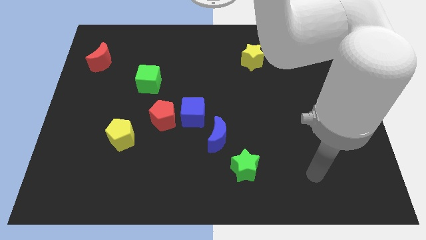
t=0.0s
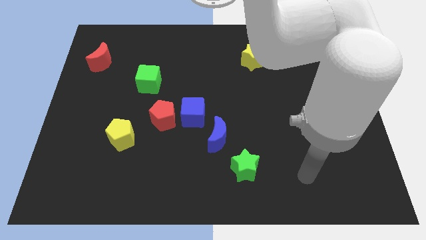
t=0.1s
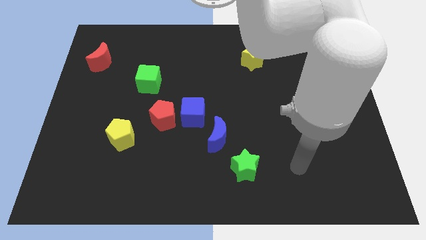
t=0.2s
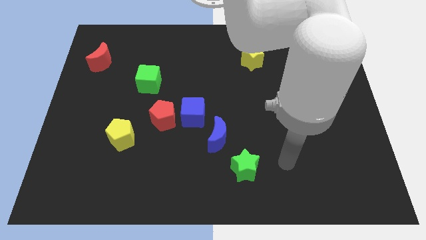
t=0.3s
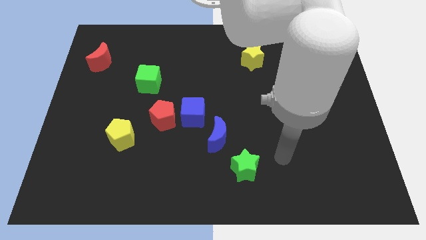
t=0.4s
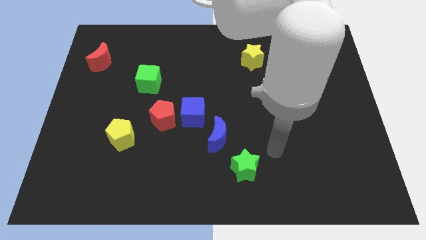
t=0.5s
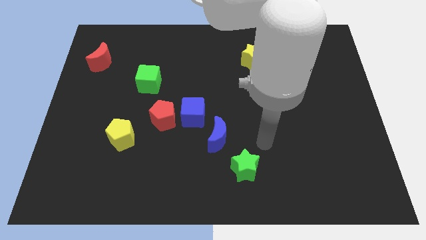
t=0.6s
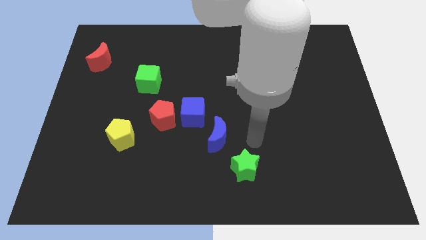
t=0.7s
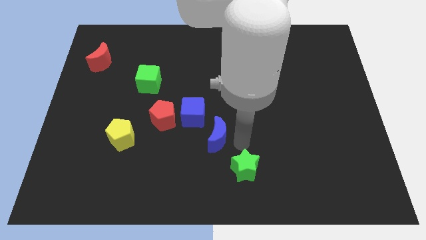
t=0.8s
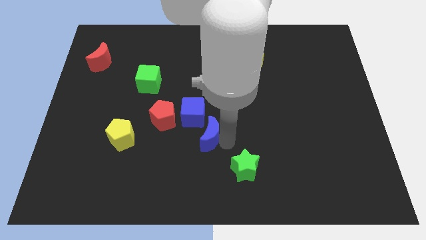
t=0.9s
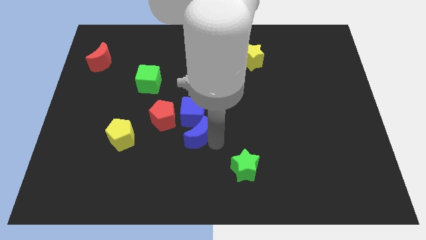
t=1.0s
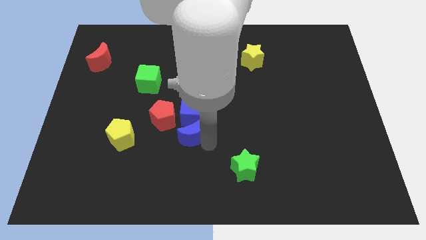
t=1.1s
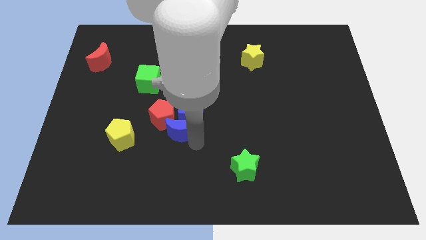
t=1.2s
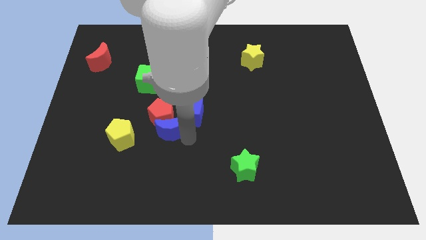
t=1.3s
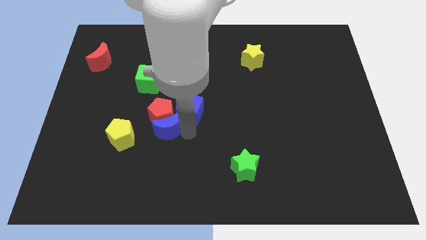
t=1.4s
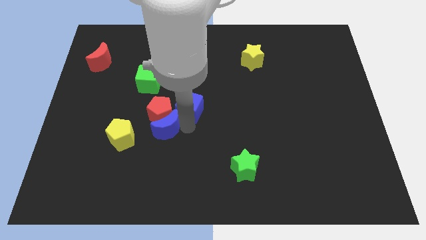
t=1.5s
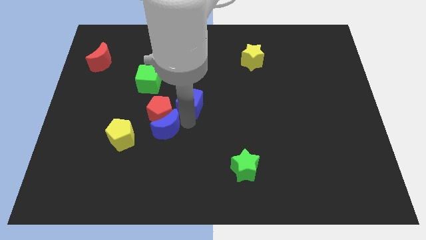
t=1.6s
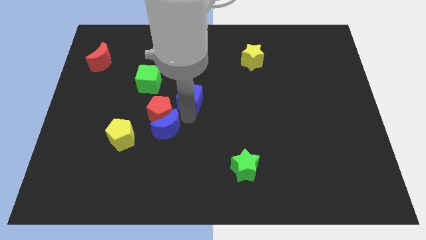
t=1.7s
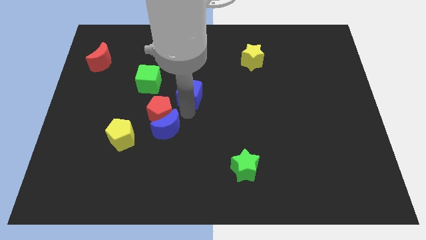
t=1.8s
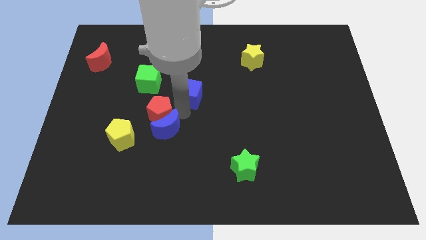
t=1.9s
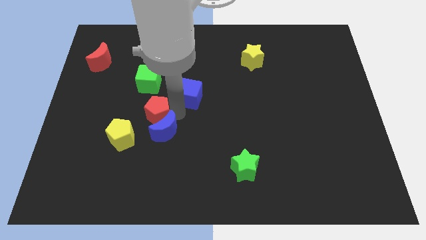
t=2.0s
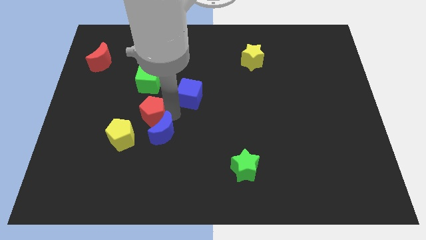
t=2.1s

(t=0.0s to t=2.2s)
pull the blue cube apart from the red pentagon and blue moon

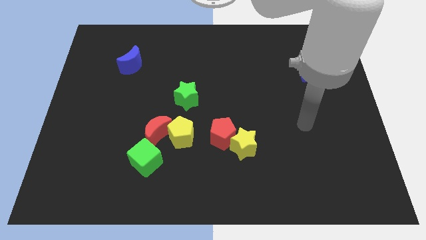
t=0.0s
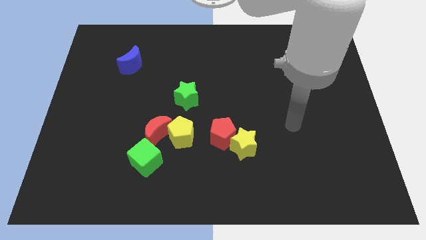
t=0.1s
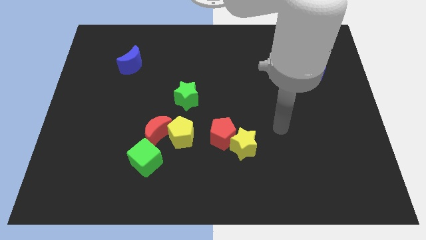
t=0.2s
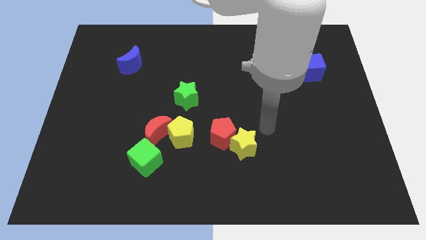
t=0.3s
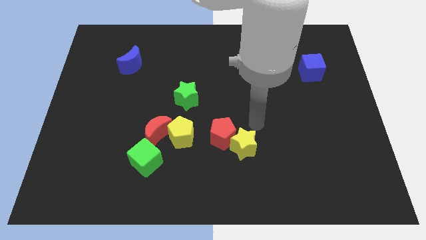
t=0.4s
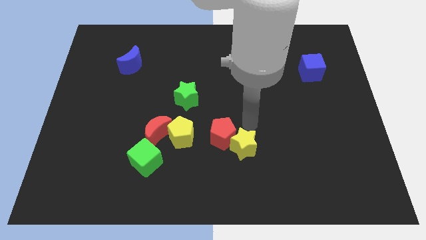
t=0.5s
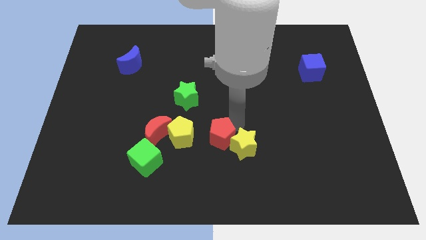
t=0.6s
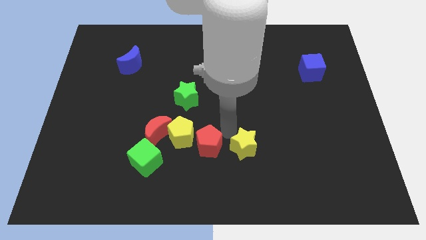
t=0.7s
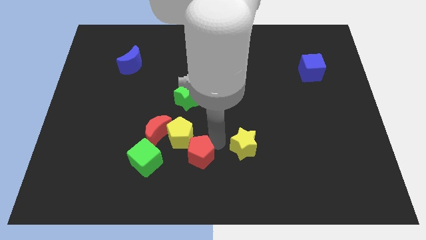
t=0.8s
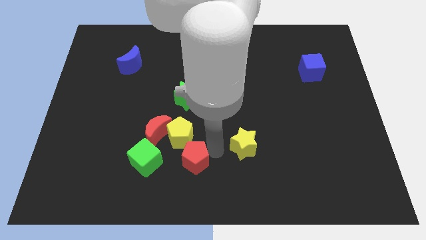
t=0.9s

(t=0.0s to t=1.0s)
separate the yellow star from the red pentagon

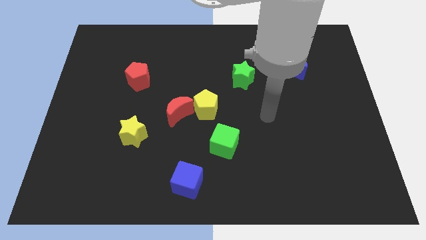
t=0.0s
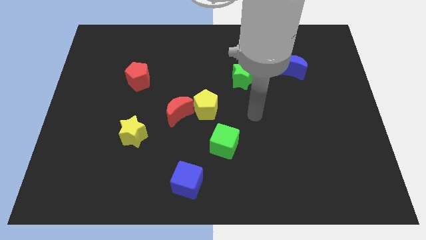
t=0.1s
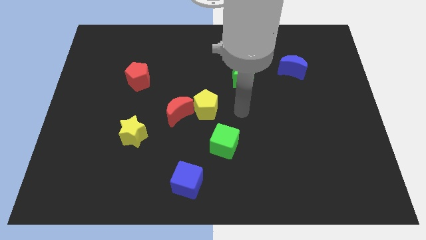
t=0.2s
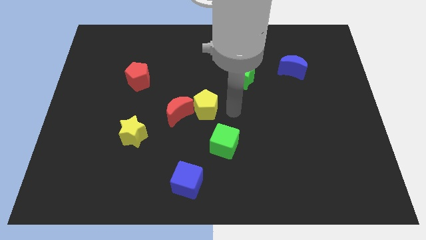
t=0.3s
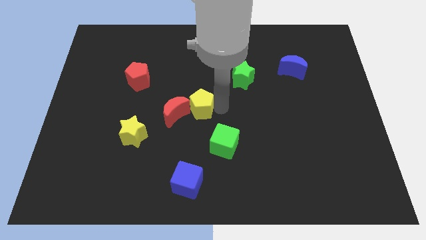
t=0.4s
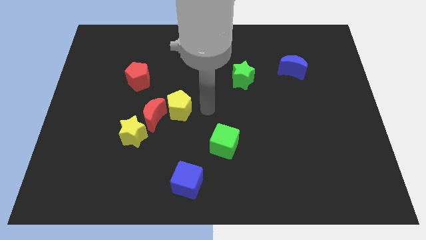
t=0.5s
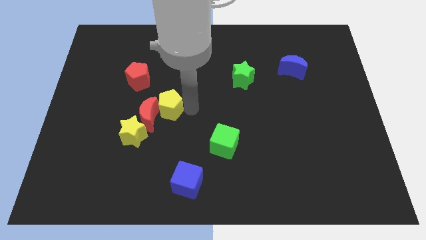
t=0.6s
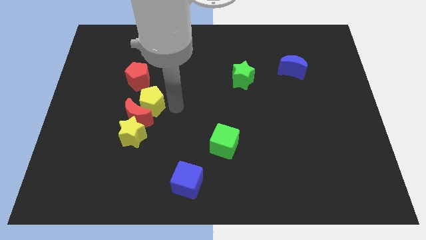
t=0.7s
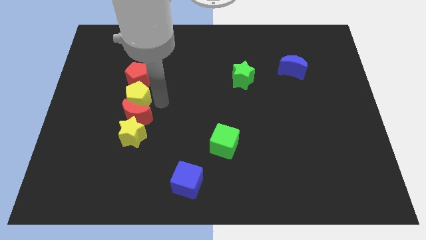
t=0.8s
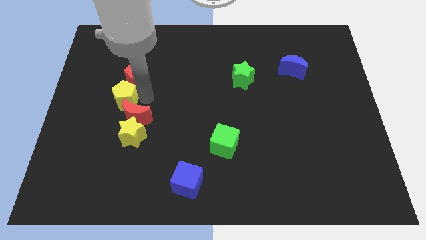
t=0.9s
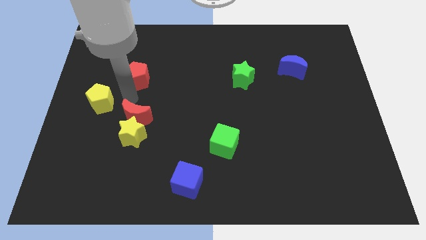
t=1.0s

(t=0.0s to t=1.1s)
move the red moon away from the yellow pentagon

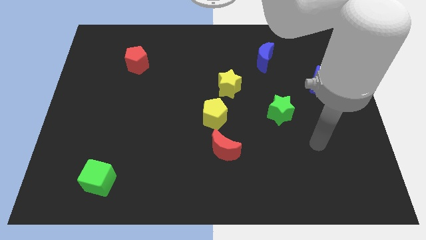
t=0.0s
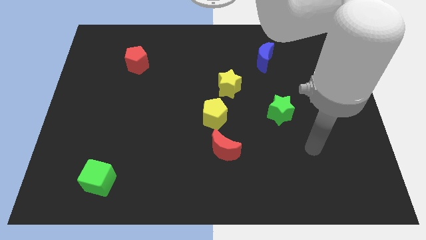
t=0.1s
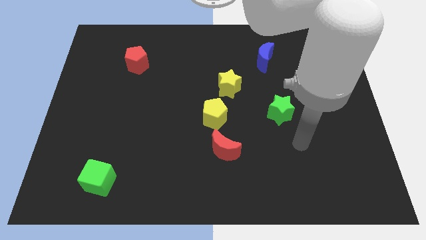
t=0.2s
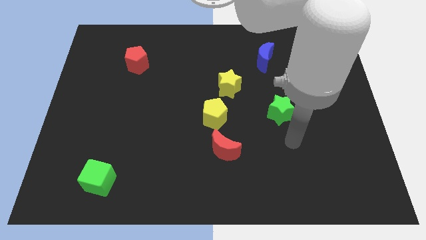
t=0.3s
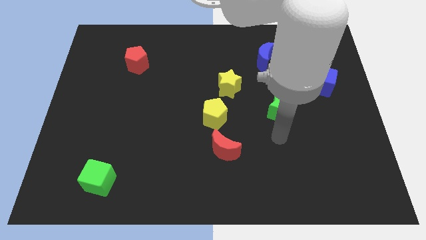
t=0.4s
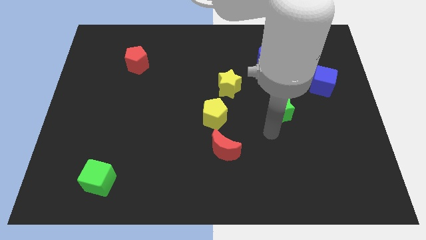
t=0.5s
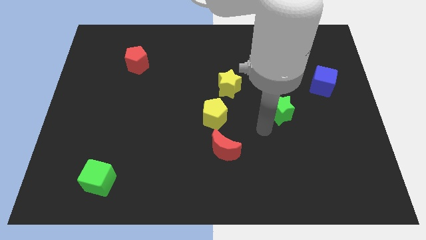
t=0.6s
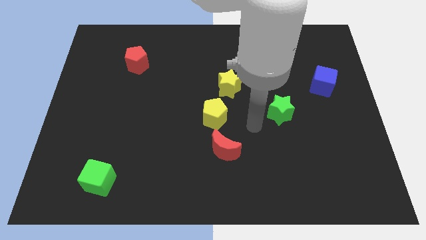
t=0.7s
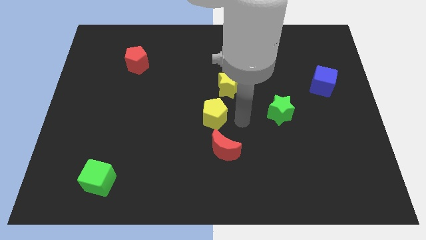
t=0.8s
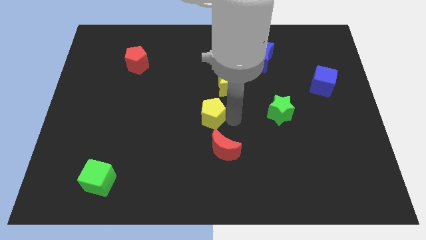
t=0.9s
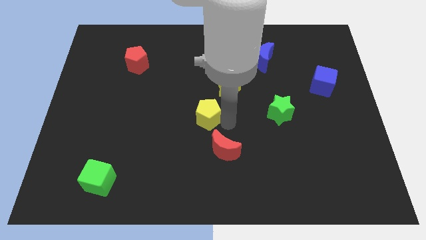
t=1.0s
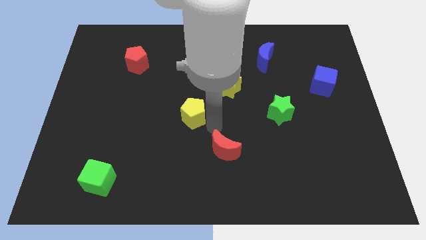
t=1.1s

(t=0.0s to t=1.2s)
pull the red moon apart from the yellow pentagon

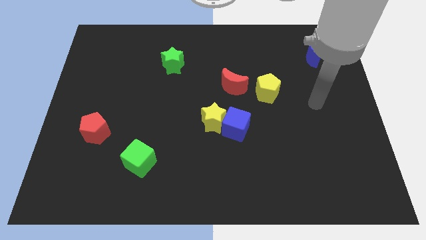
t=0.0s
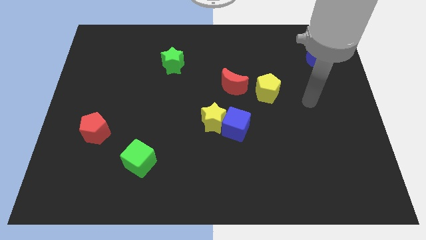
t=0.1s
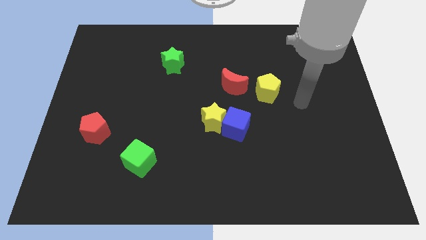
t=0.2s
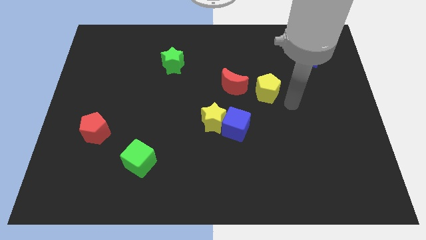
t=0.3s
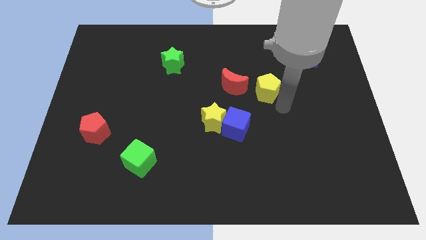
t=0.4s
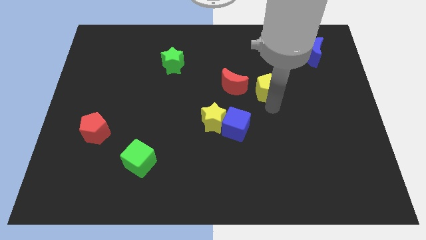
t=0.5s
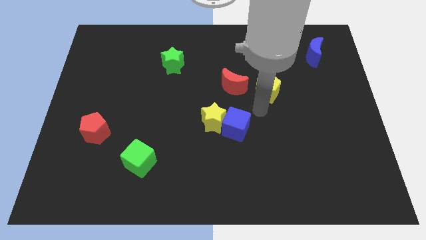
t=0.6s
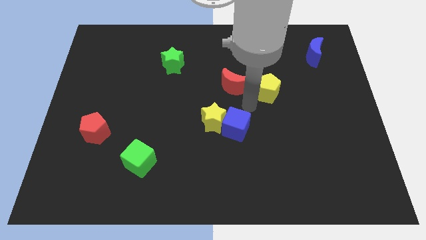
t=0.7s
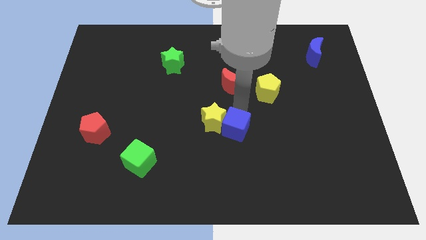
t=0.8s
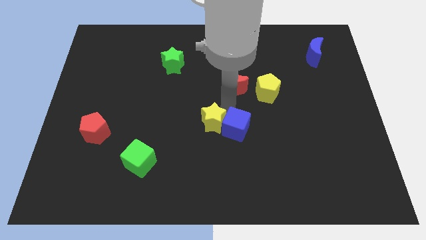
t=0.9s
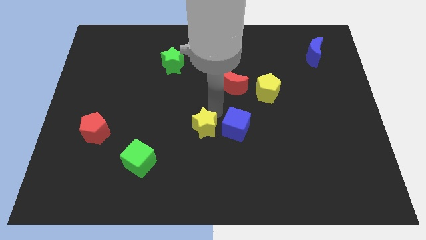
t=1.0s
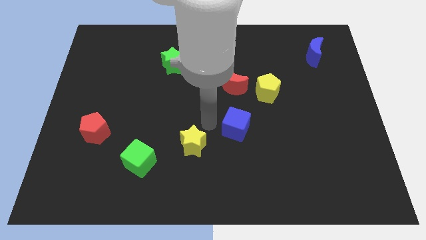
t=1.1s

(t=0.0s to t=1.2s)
pull the blue cube apart from the yellow star

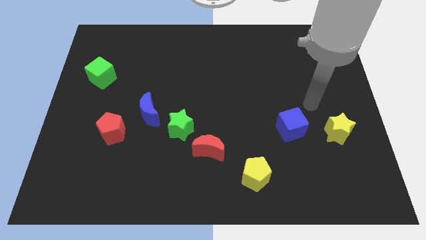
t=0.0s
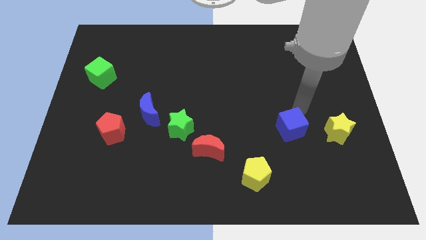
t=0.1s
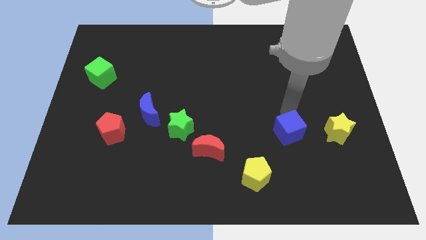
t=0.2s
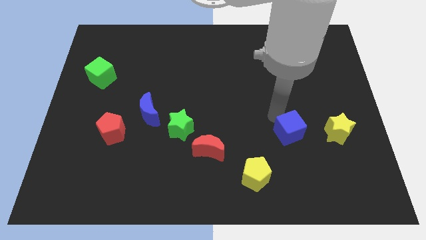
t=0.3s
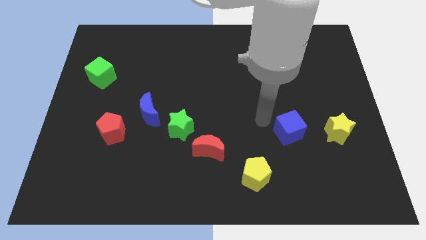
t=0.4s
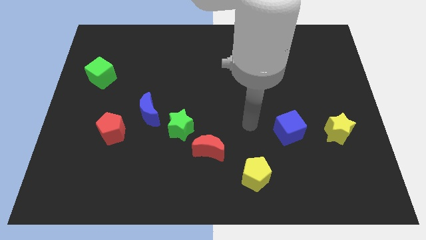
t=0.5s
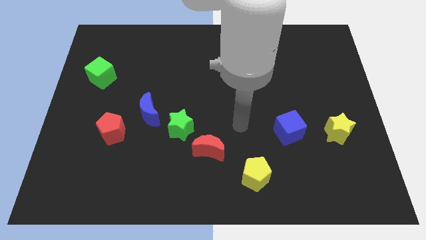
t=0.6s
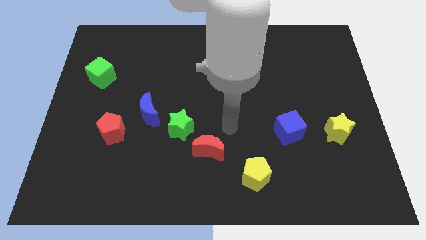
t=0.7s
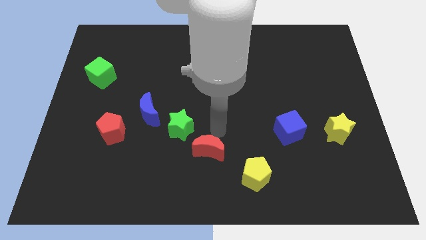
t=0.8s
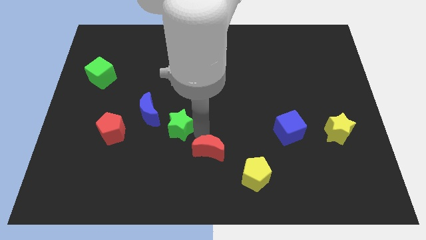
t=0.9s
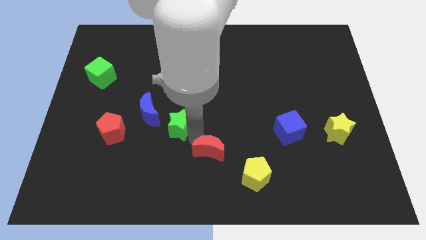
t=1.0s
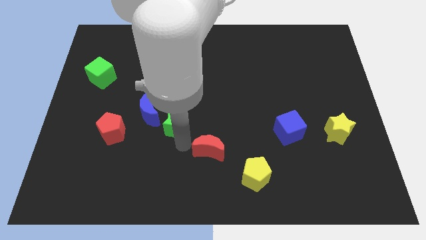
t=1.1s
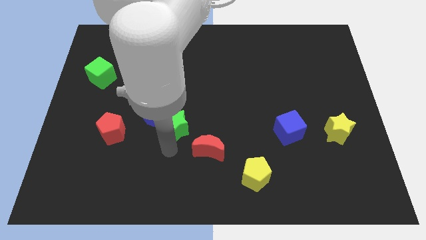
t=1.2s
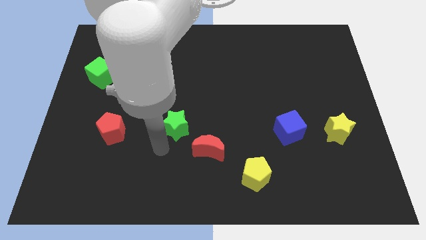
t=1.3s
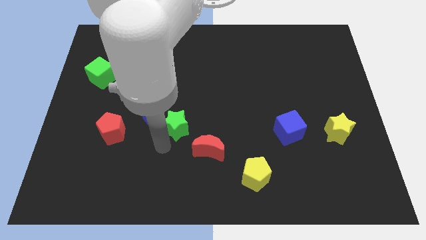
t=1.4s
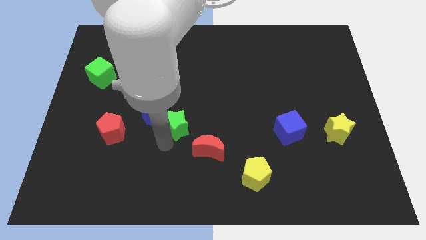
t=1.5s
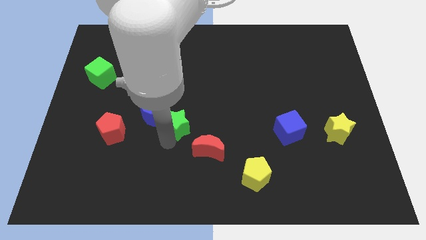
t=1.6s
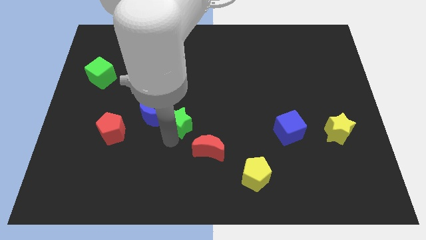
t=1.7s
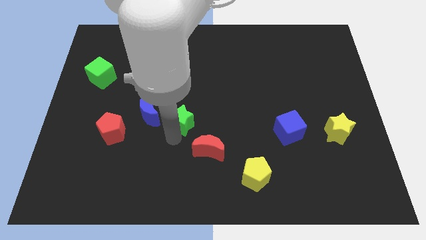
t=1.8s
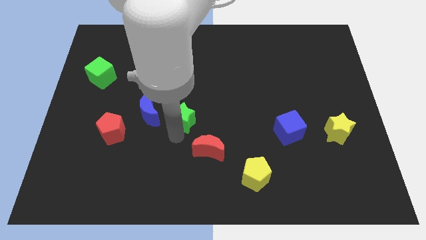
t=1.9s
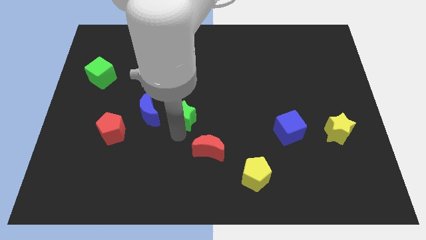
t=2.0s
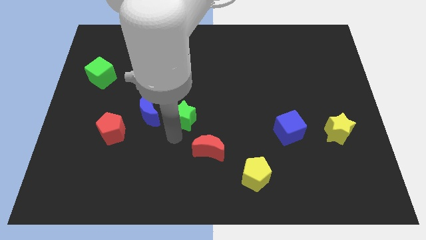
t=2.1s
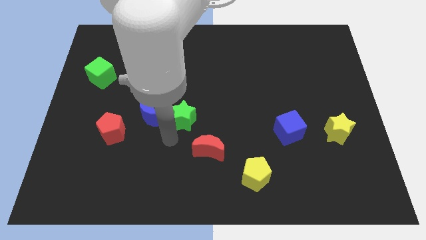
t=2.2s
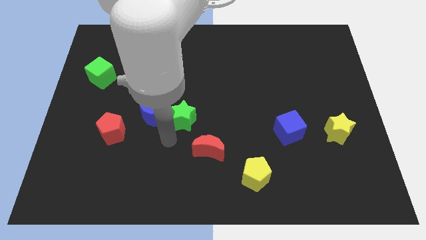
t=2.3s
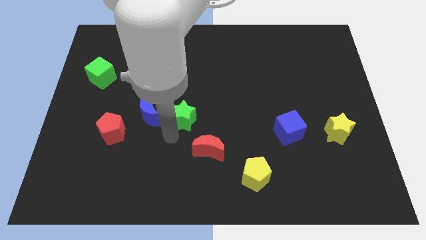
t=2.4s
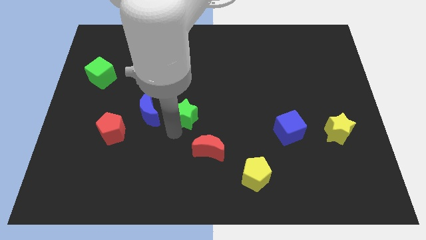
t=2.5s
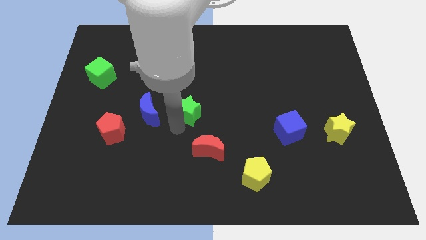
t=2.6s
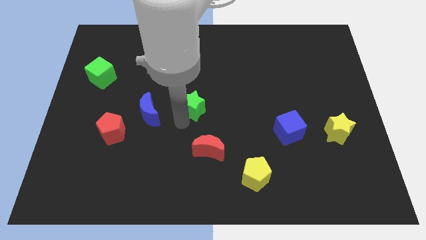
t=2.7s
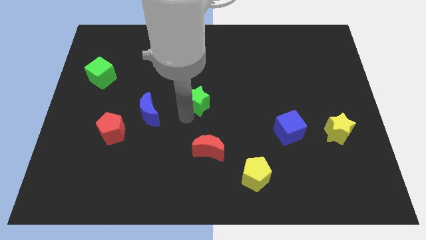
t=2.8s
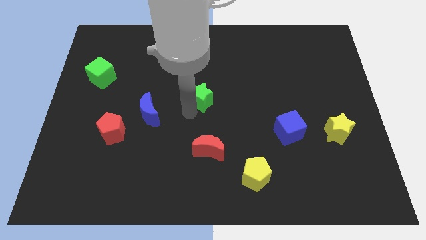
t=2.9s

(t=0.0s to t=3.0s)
move the green star away from the blue moon and red moon
